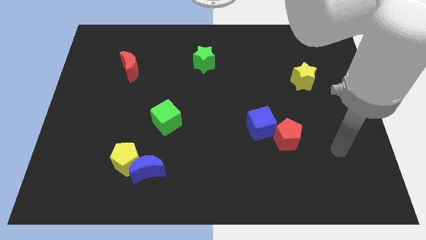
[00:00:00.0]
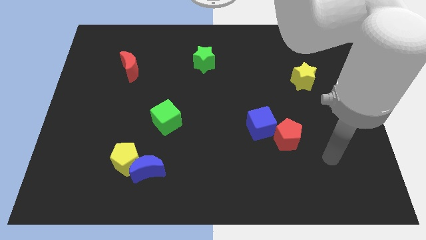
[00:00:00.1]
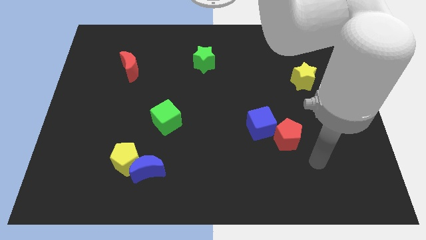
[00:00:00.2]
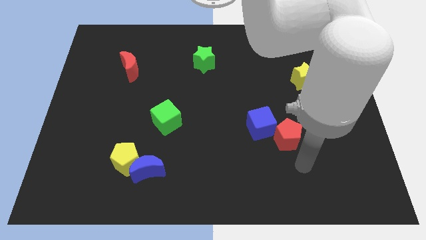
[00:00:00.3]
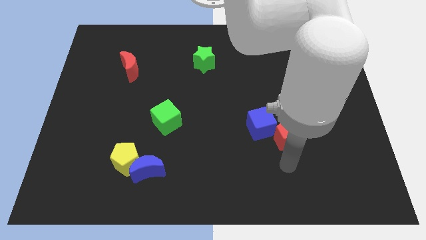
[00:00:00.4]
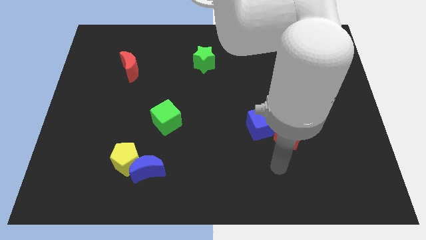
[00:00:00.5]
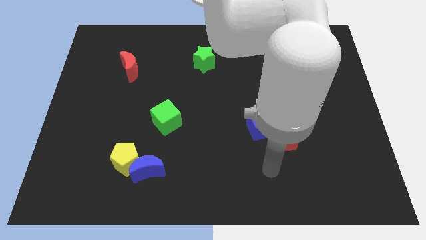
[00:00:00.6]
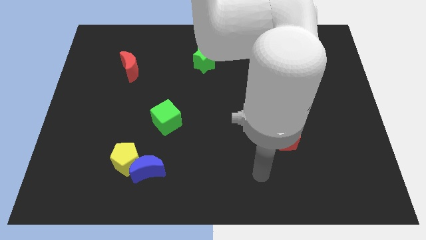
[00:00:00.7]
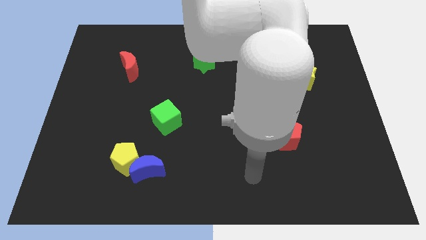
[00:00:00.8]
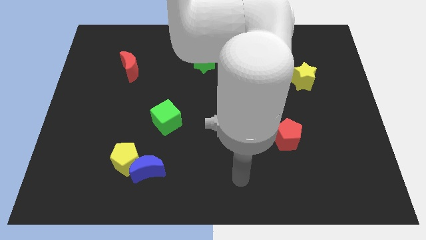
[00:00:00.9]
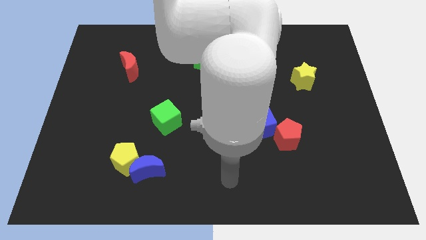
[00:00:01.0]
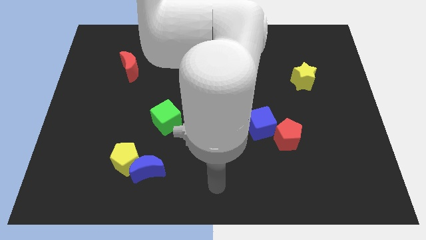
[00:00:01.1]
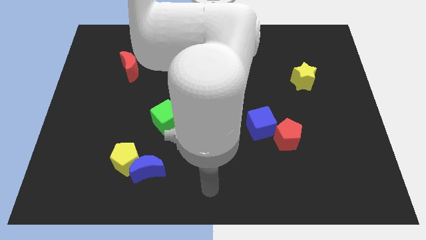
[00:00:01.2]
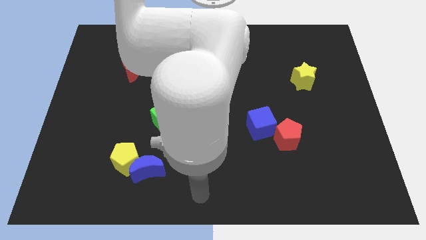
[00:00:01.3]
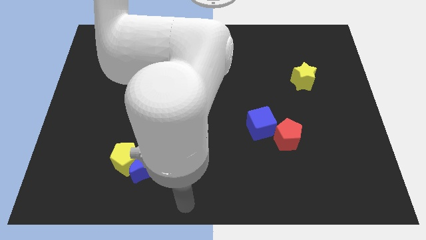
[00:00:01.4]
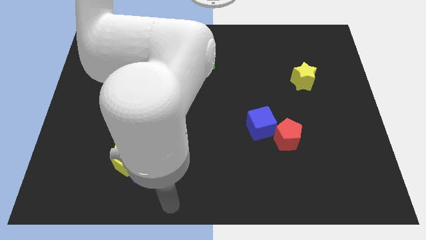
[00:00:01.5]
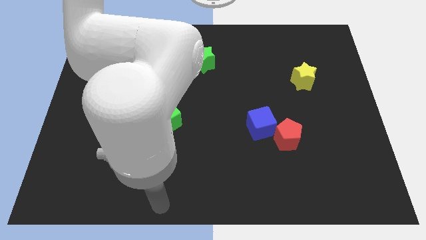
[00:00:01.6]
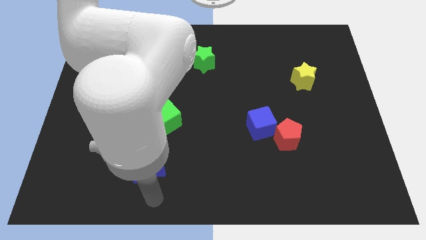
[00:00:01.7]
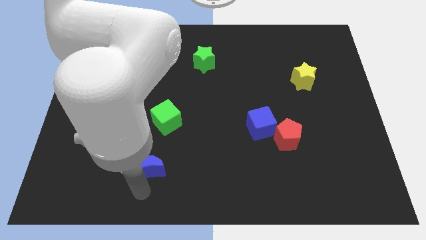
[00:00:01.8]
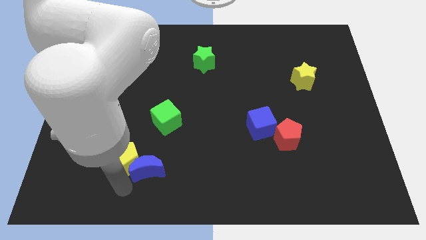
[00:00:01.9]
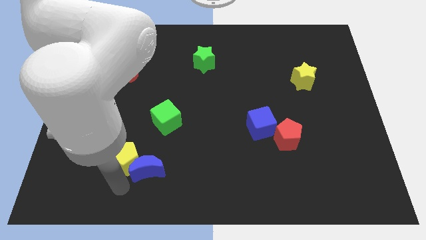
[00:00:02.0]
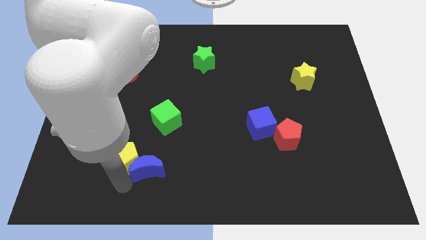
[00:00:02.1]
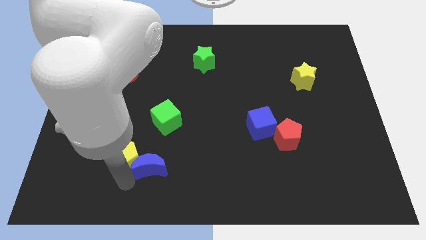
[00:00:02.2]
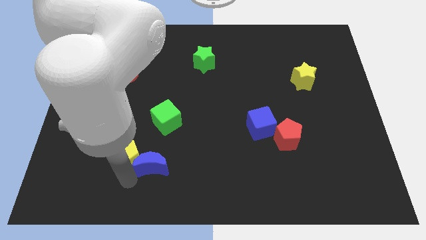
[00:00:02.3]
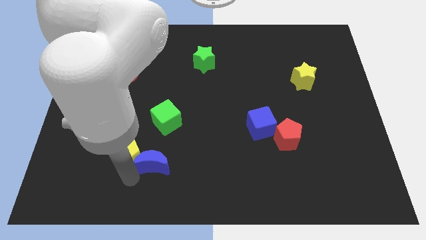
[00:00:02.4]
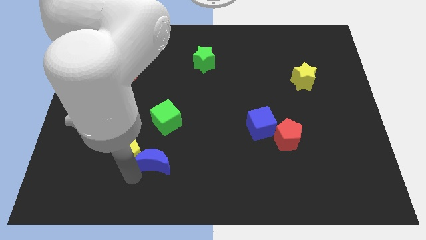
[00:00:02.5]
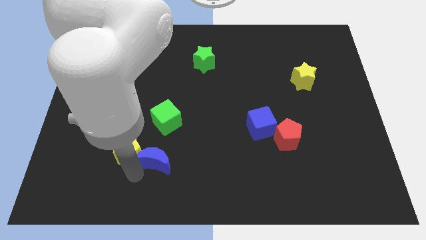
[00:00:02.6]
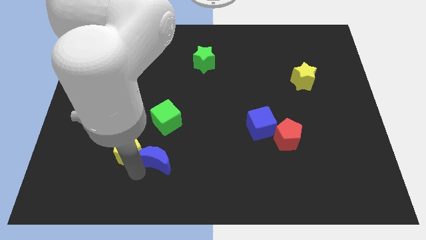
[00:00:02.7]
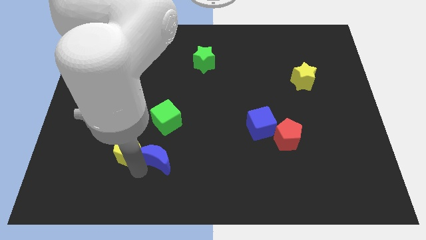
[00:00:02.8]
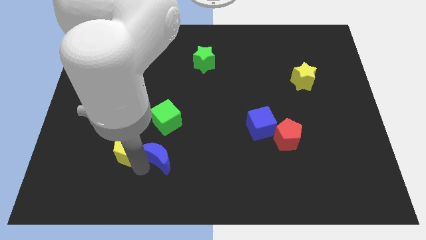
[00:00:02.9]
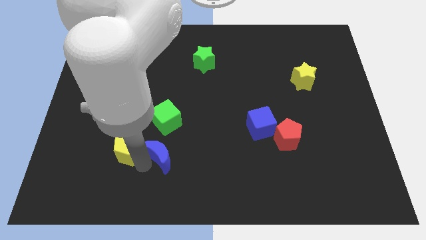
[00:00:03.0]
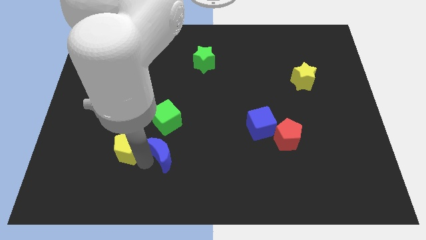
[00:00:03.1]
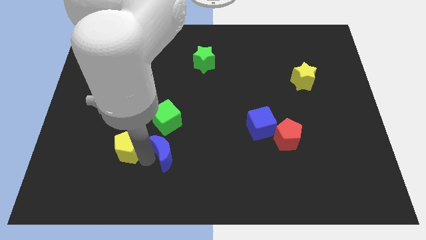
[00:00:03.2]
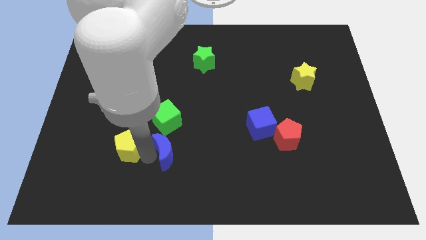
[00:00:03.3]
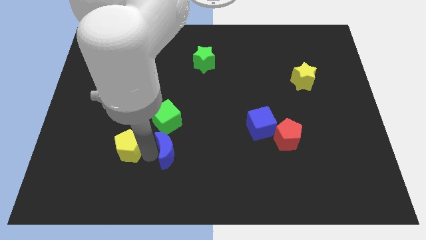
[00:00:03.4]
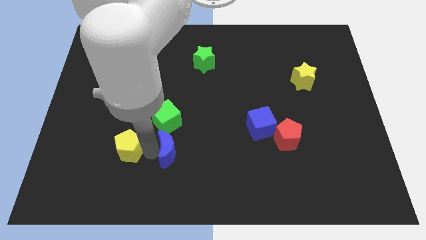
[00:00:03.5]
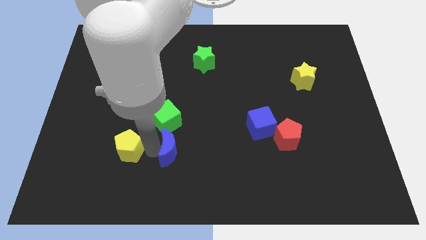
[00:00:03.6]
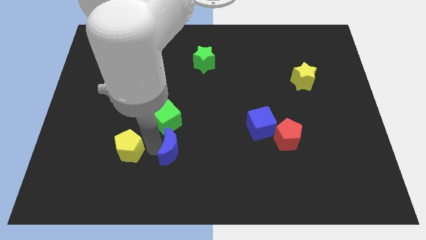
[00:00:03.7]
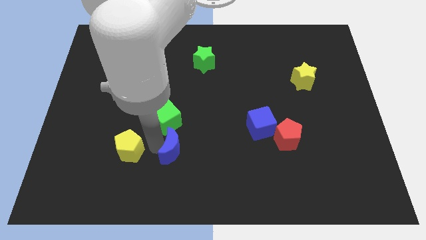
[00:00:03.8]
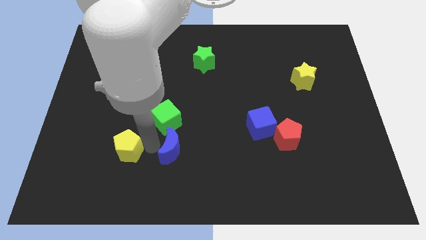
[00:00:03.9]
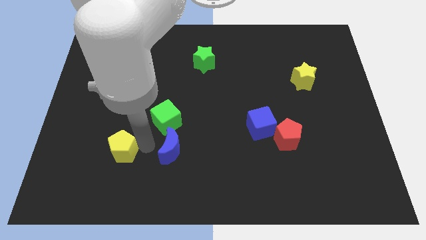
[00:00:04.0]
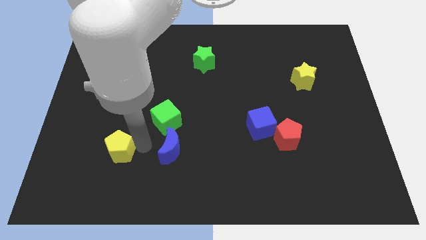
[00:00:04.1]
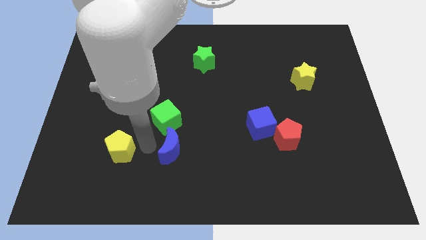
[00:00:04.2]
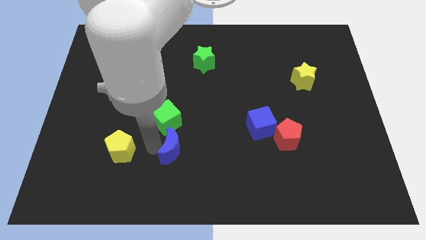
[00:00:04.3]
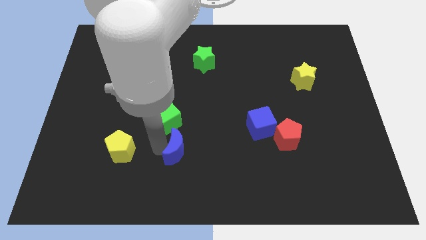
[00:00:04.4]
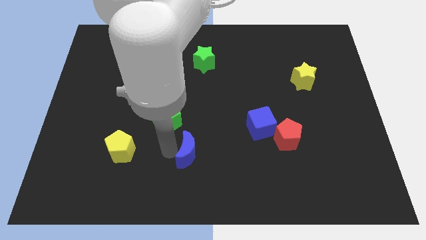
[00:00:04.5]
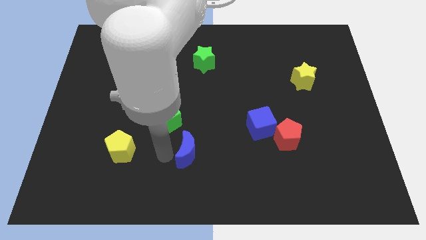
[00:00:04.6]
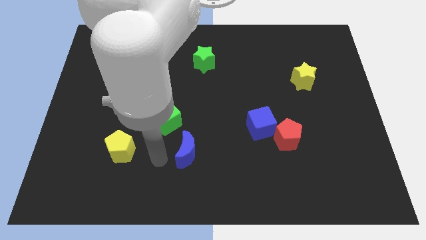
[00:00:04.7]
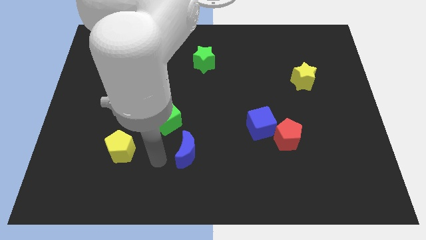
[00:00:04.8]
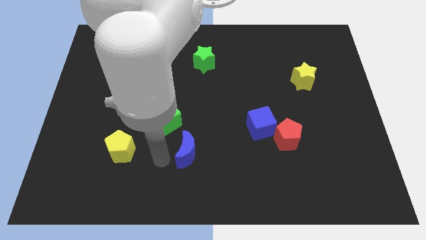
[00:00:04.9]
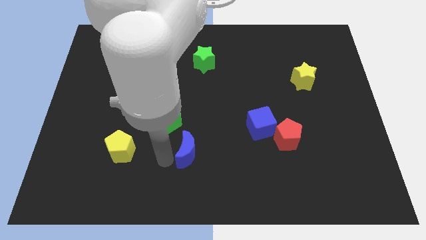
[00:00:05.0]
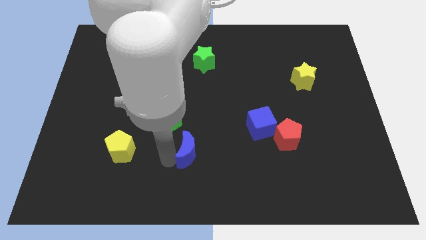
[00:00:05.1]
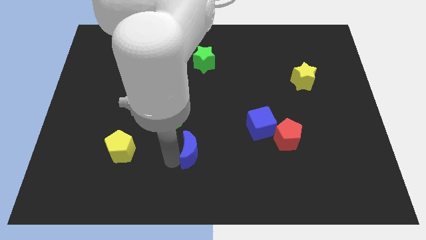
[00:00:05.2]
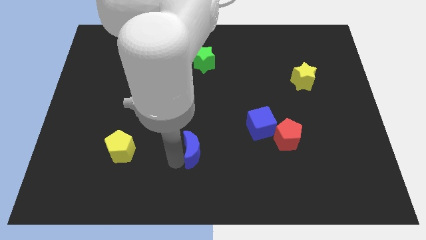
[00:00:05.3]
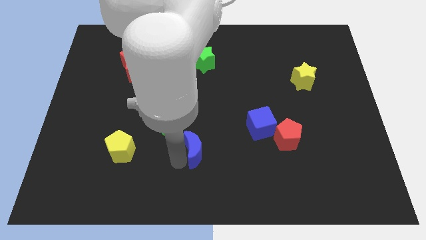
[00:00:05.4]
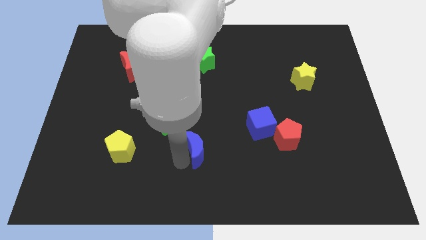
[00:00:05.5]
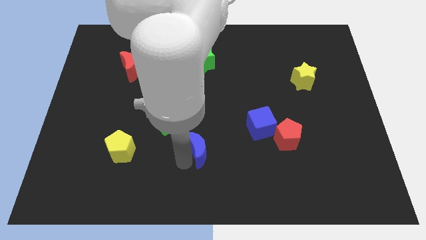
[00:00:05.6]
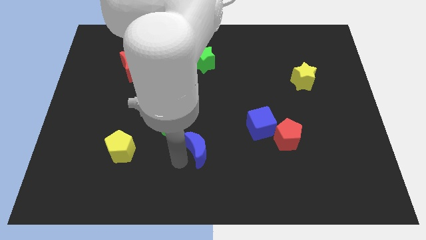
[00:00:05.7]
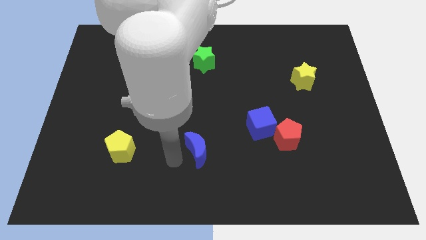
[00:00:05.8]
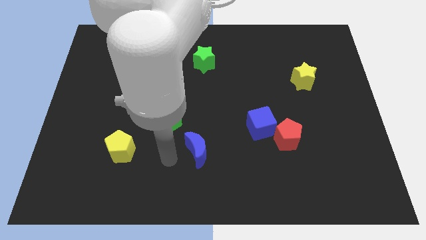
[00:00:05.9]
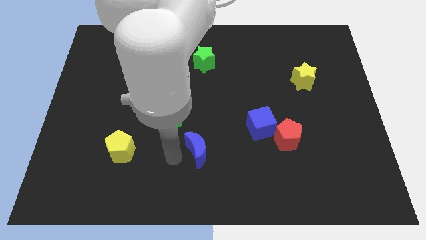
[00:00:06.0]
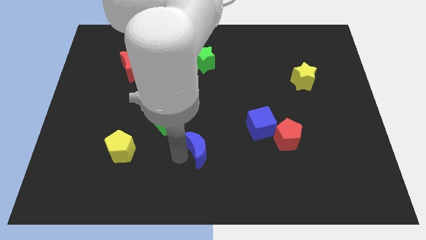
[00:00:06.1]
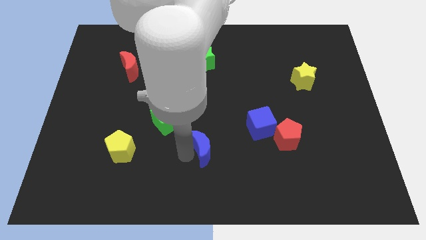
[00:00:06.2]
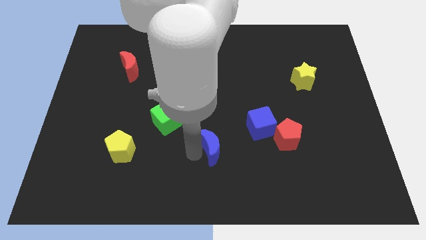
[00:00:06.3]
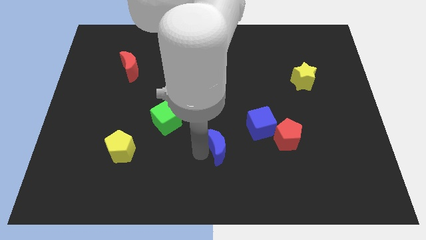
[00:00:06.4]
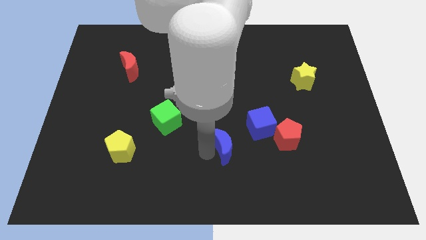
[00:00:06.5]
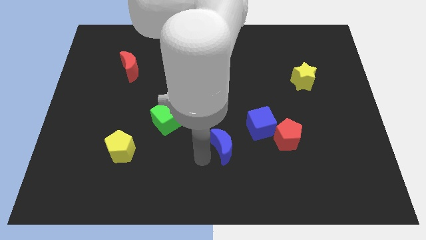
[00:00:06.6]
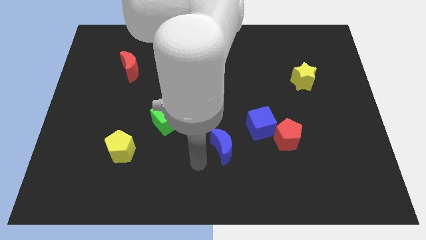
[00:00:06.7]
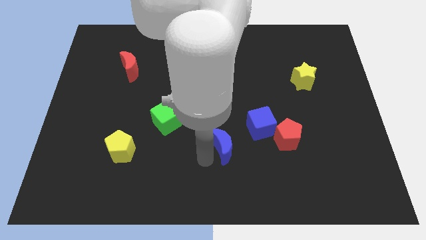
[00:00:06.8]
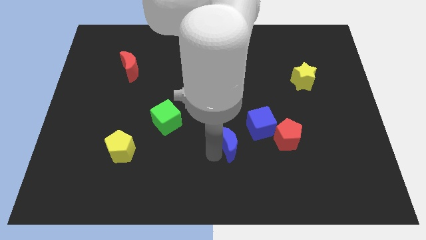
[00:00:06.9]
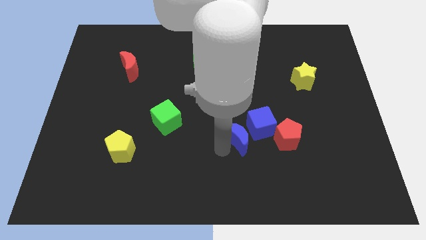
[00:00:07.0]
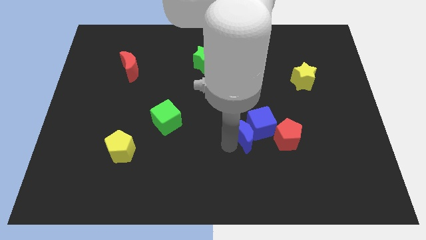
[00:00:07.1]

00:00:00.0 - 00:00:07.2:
move the blue moon to the blue cube
